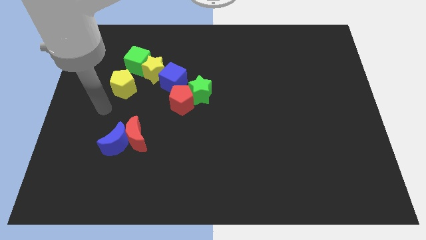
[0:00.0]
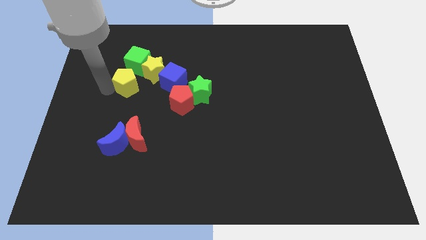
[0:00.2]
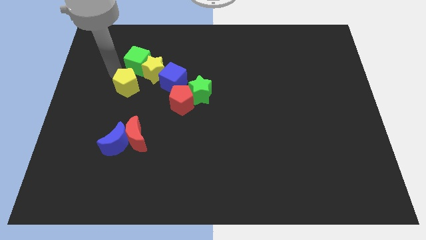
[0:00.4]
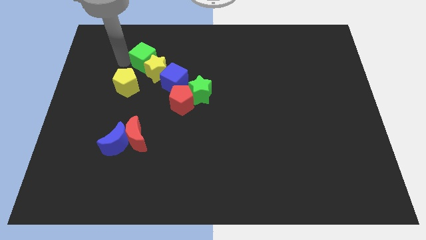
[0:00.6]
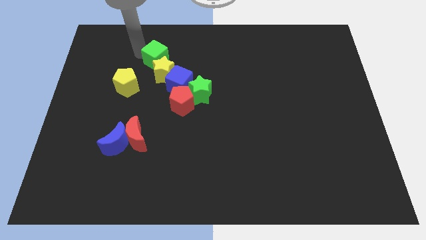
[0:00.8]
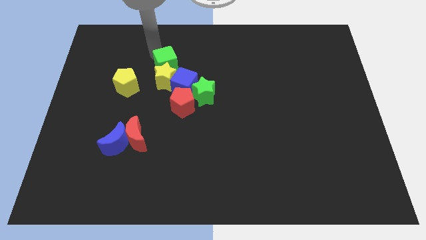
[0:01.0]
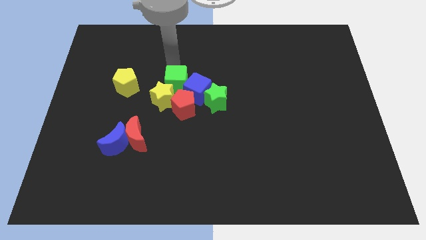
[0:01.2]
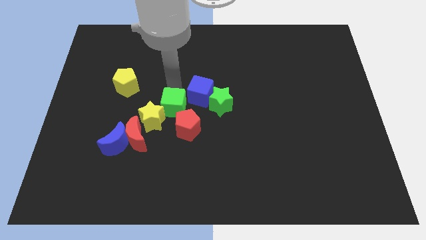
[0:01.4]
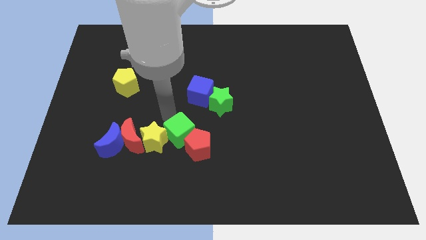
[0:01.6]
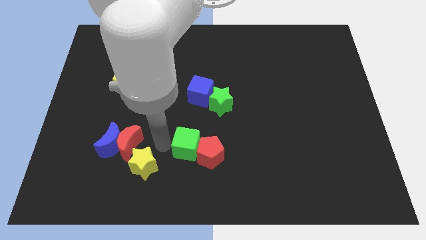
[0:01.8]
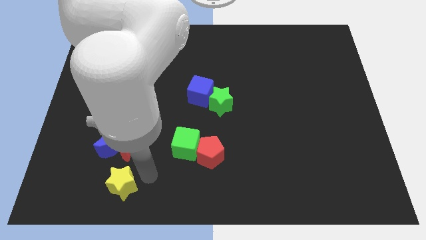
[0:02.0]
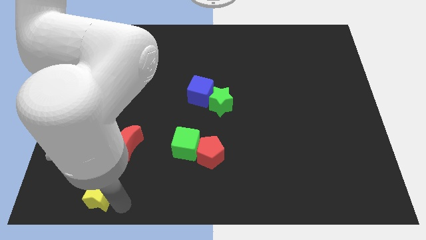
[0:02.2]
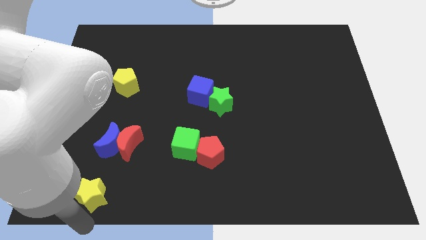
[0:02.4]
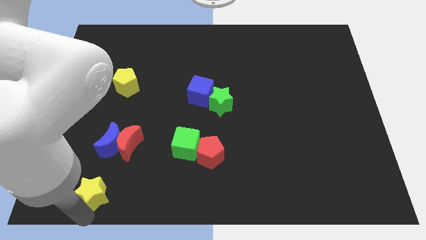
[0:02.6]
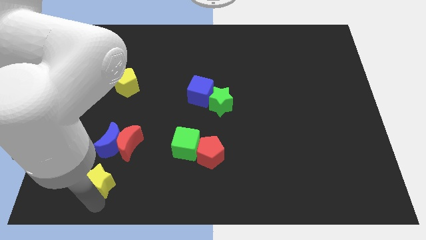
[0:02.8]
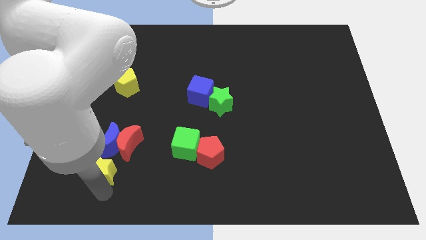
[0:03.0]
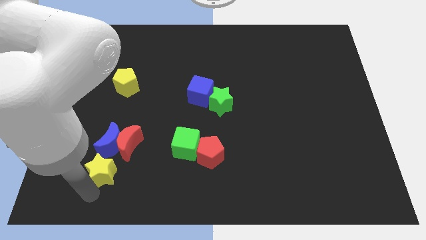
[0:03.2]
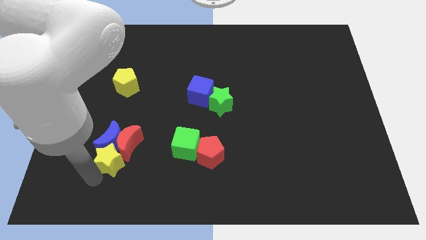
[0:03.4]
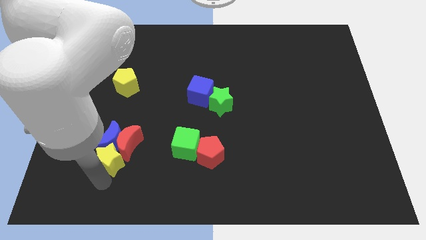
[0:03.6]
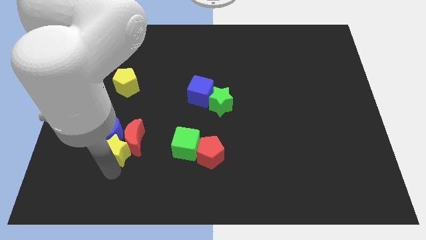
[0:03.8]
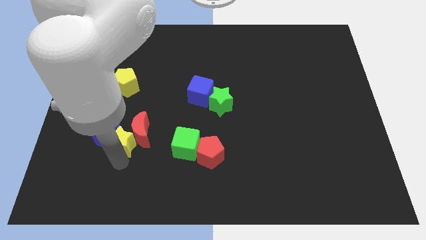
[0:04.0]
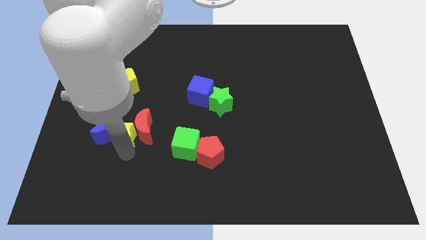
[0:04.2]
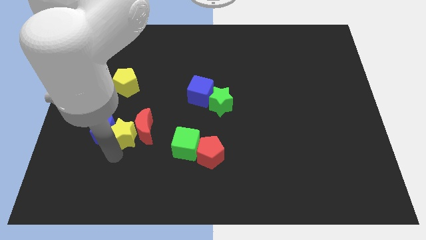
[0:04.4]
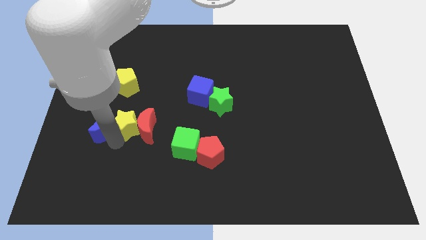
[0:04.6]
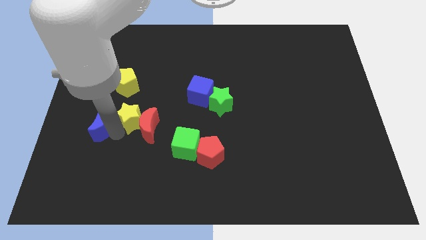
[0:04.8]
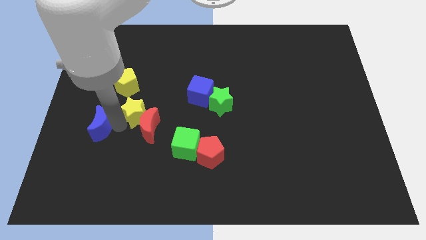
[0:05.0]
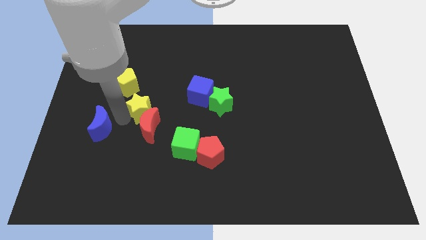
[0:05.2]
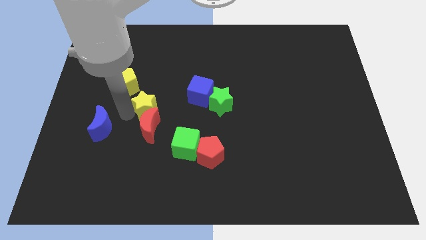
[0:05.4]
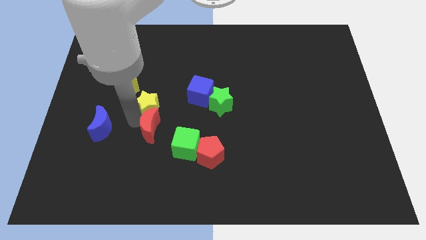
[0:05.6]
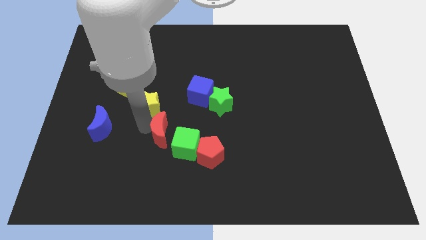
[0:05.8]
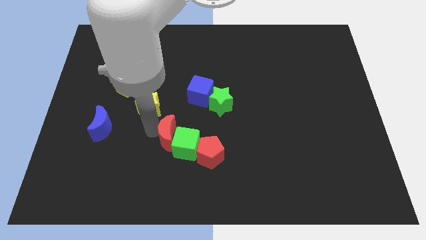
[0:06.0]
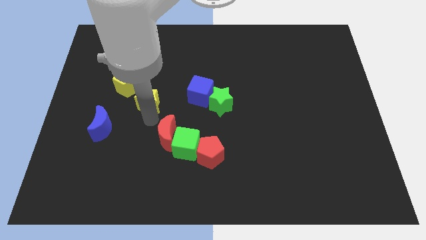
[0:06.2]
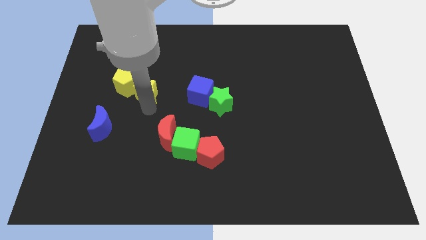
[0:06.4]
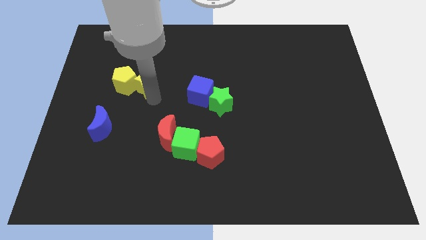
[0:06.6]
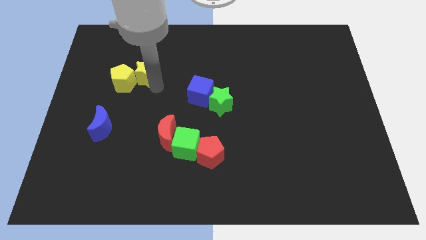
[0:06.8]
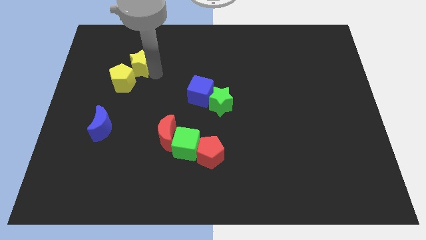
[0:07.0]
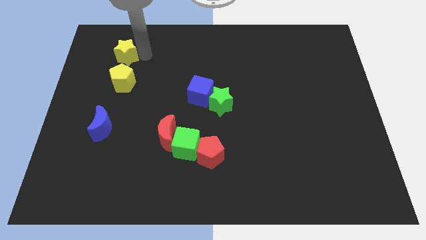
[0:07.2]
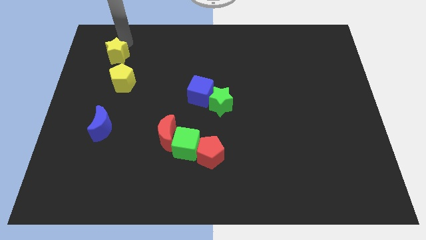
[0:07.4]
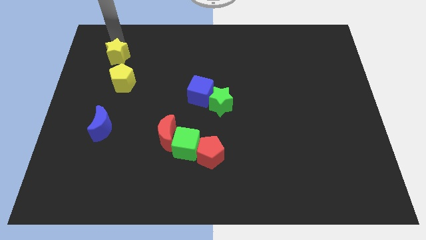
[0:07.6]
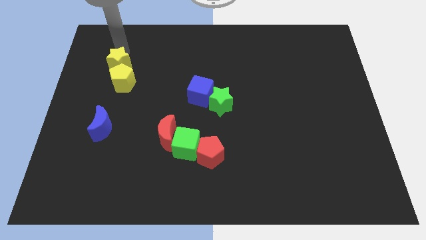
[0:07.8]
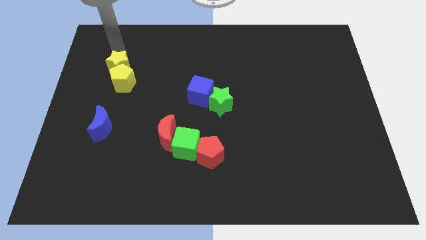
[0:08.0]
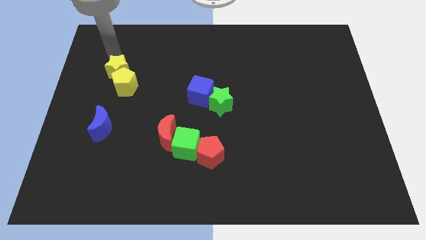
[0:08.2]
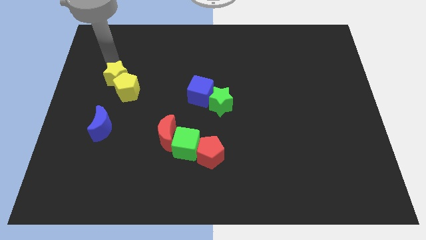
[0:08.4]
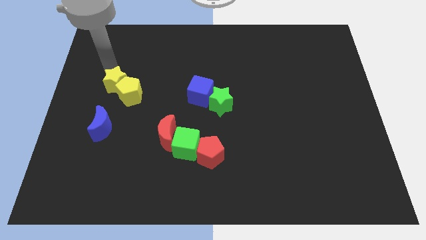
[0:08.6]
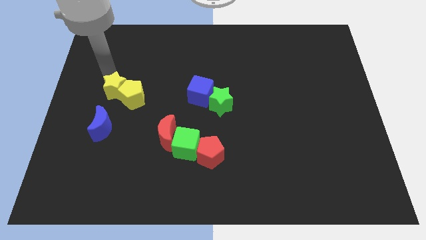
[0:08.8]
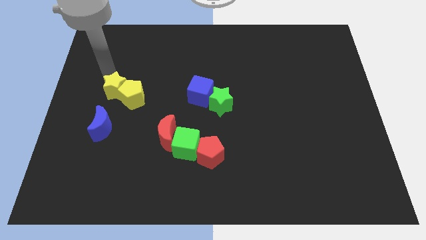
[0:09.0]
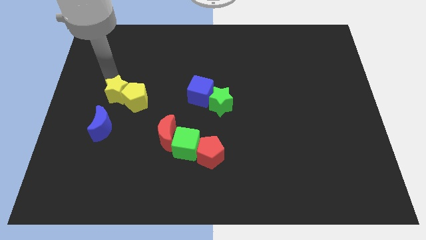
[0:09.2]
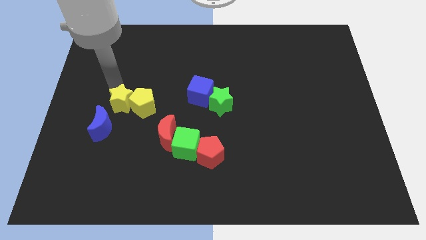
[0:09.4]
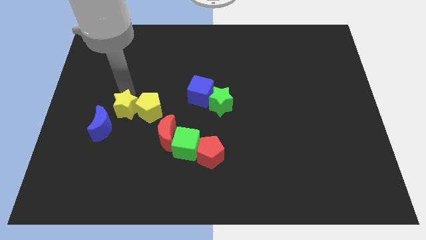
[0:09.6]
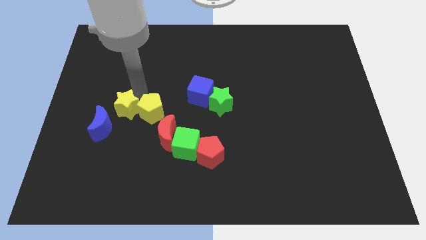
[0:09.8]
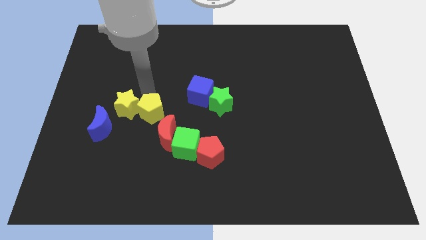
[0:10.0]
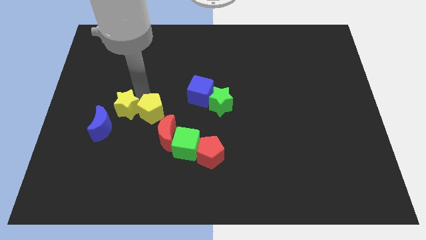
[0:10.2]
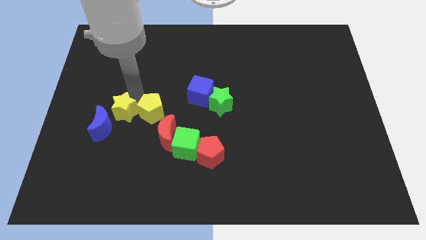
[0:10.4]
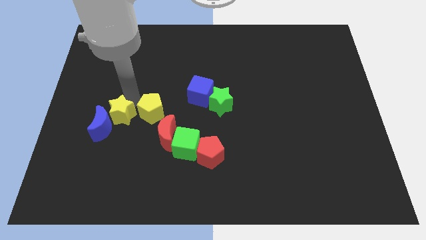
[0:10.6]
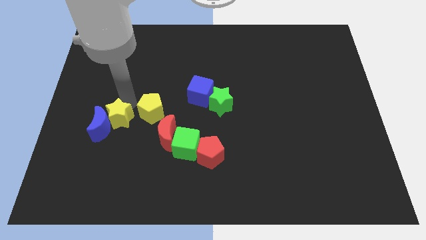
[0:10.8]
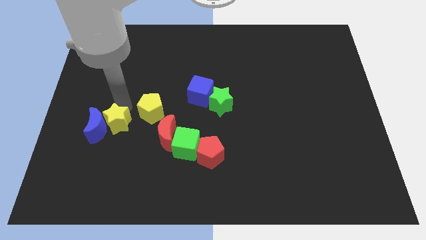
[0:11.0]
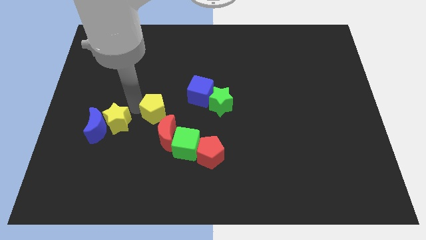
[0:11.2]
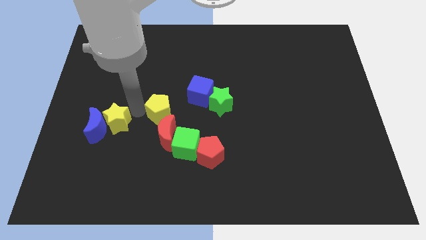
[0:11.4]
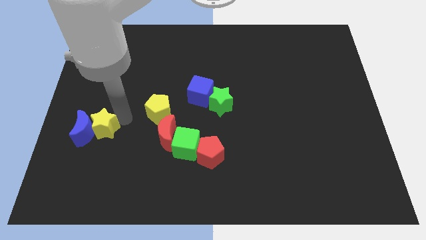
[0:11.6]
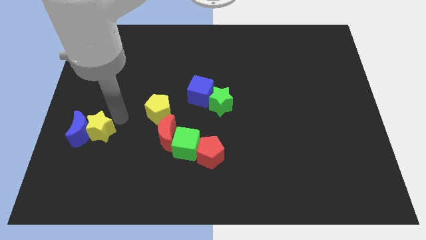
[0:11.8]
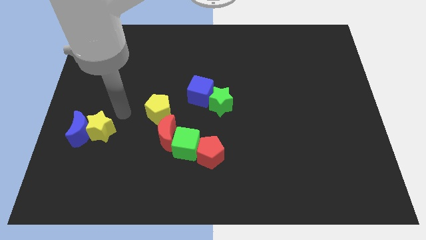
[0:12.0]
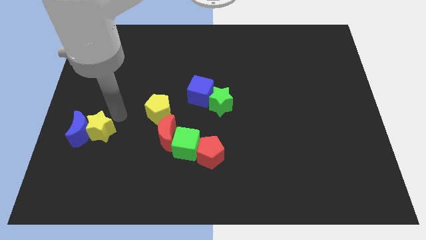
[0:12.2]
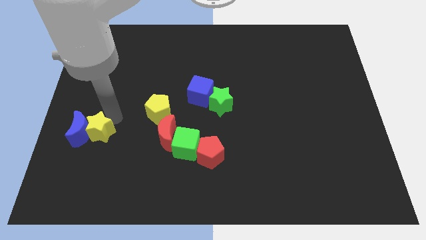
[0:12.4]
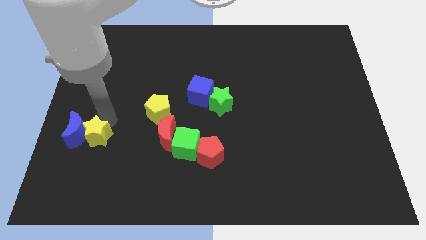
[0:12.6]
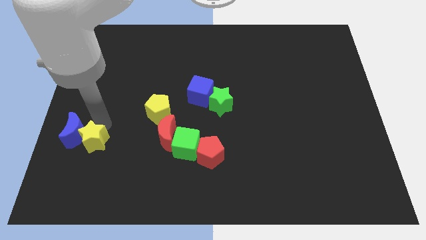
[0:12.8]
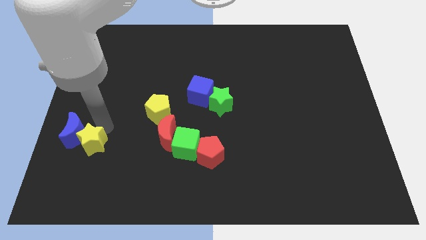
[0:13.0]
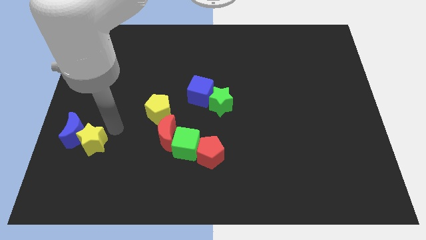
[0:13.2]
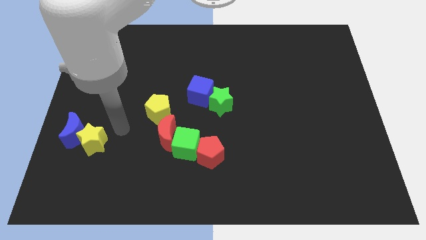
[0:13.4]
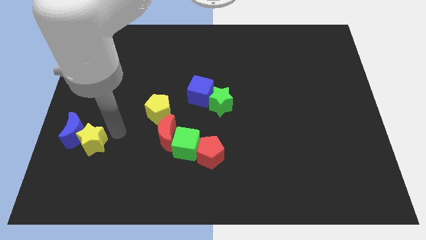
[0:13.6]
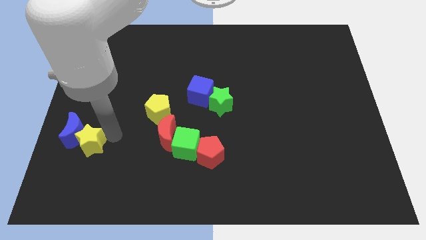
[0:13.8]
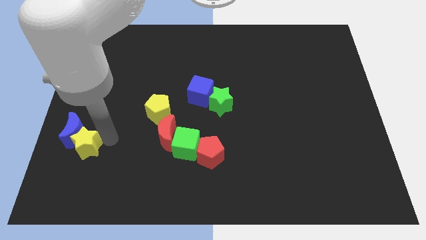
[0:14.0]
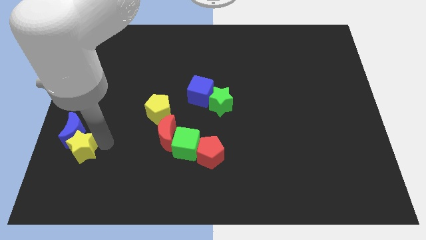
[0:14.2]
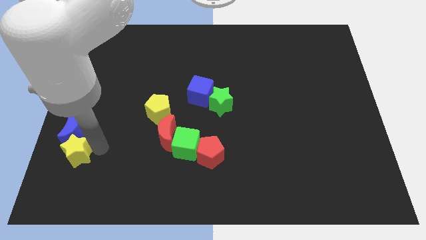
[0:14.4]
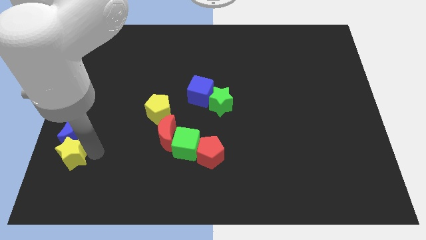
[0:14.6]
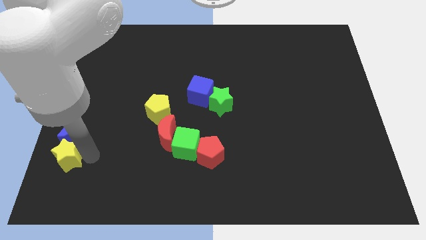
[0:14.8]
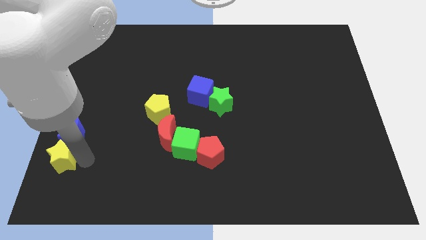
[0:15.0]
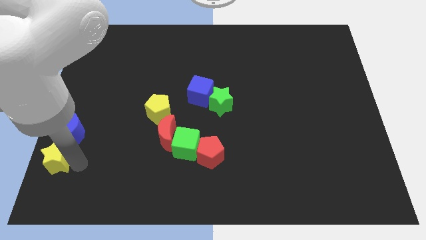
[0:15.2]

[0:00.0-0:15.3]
push the yellow star to the lower left corner

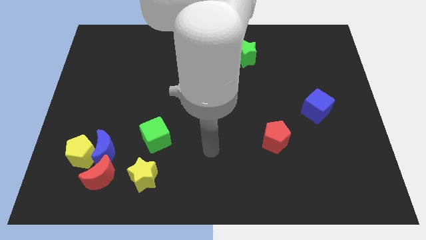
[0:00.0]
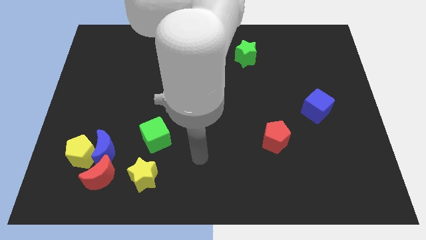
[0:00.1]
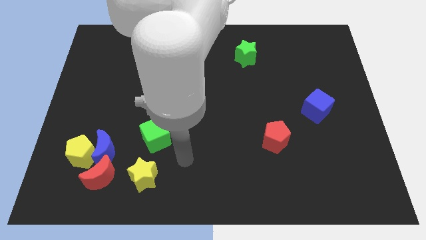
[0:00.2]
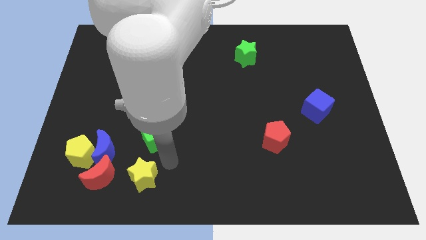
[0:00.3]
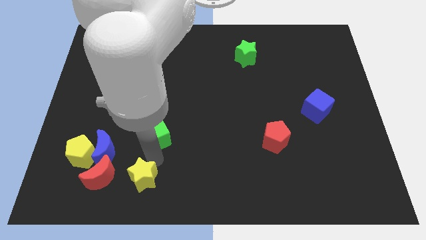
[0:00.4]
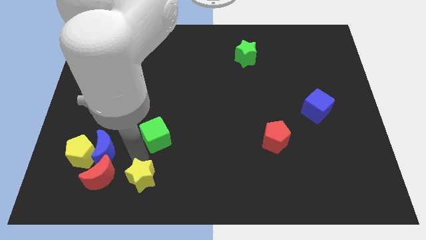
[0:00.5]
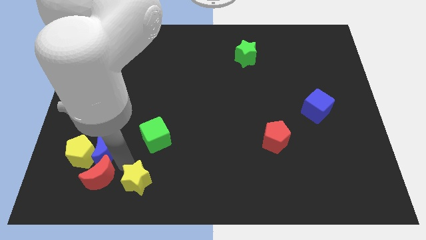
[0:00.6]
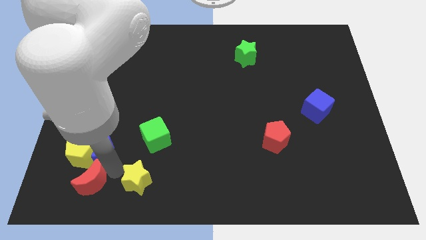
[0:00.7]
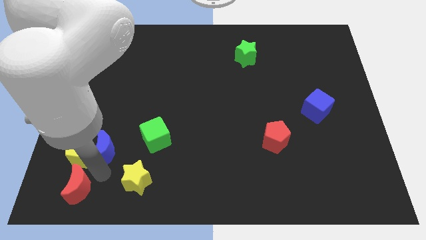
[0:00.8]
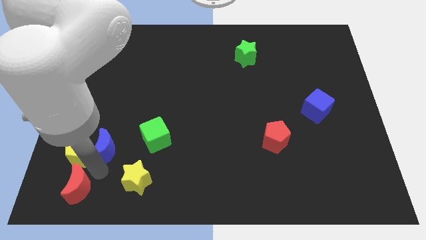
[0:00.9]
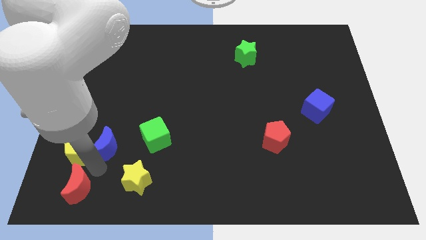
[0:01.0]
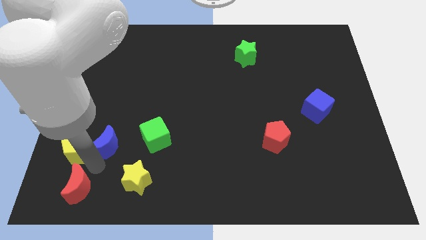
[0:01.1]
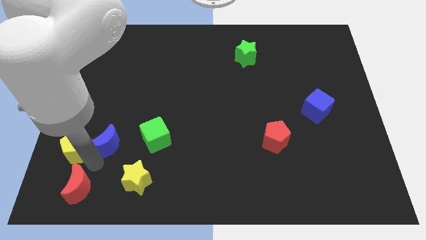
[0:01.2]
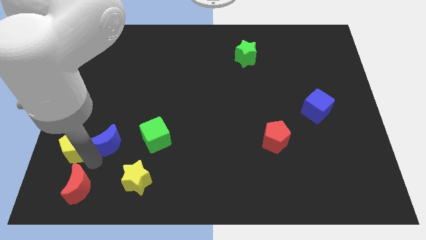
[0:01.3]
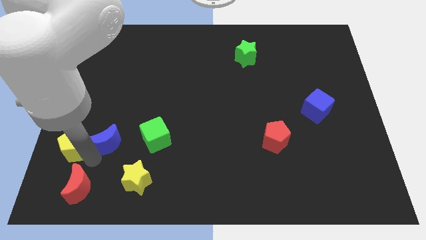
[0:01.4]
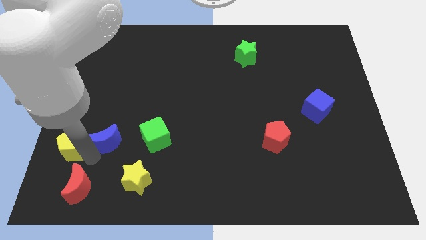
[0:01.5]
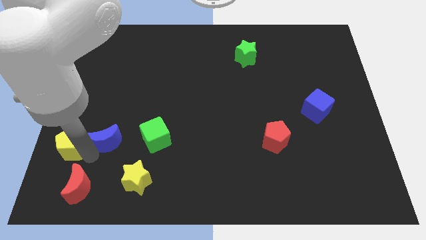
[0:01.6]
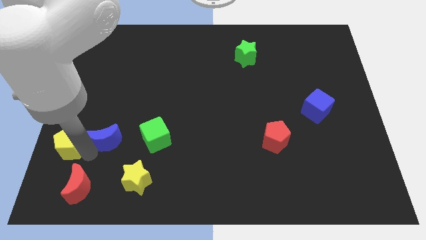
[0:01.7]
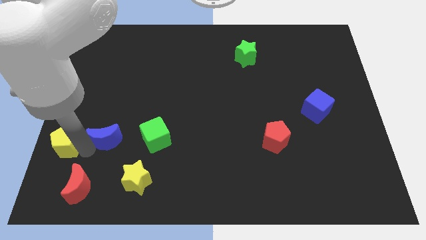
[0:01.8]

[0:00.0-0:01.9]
slide the yellow pentagon to the left side
